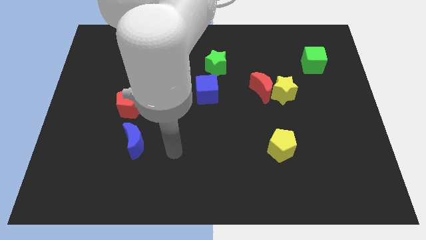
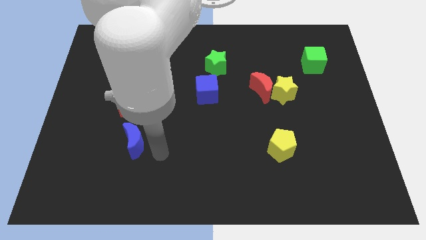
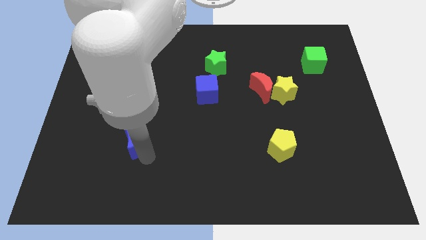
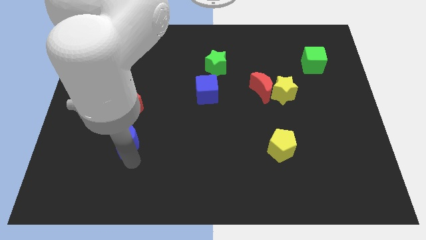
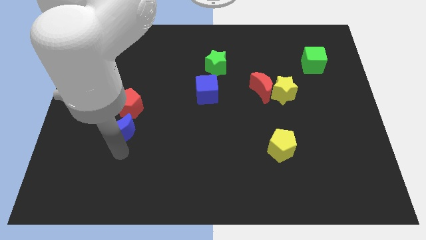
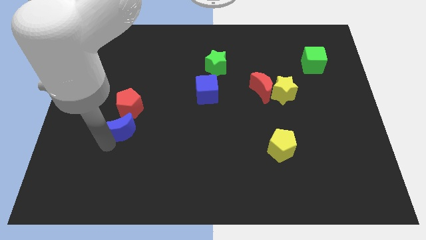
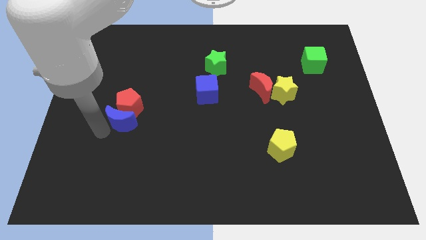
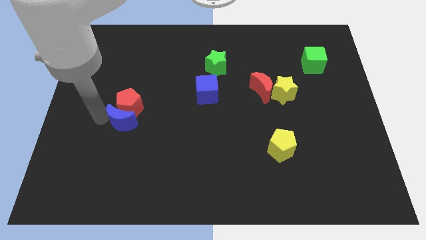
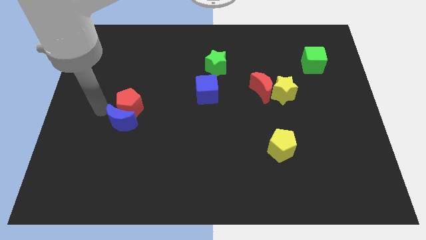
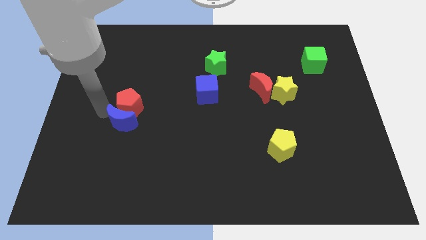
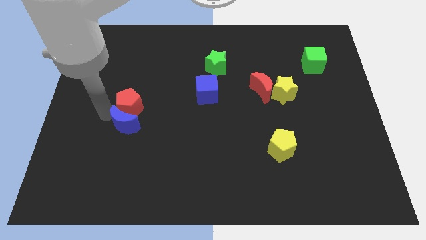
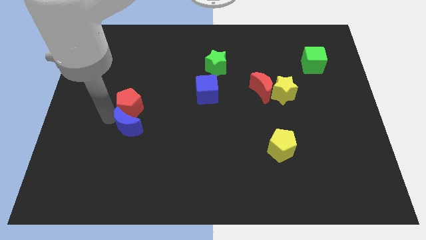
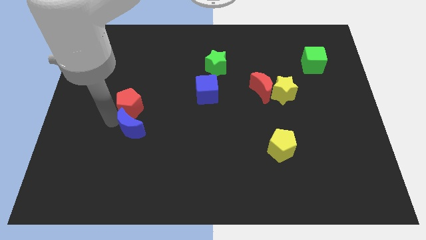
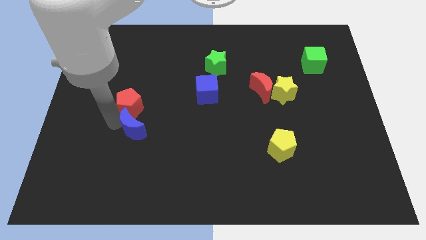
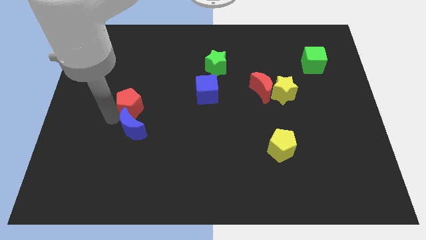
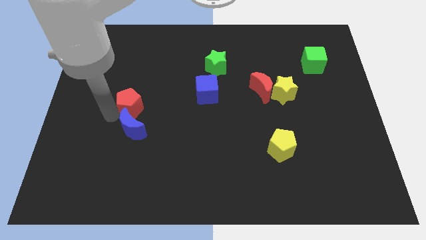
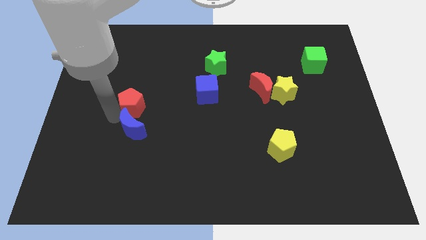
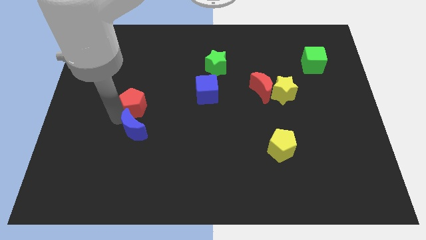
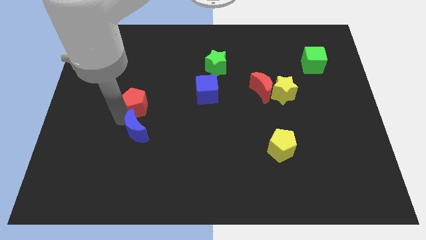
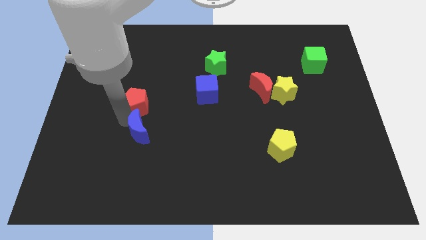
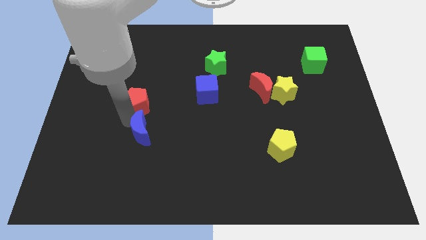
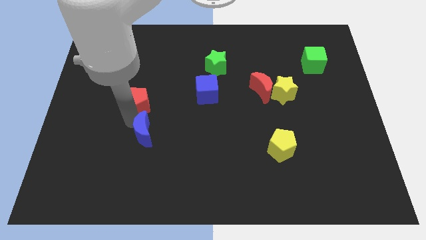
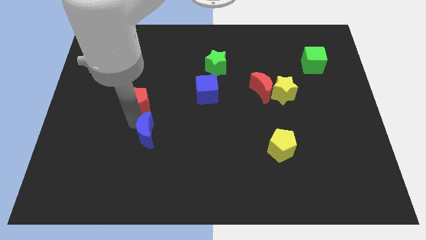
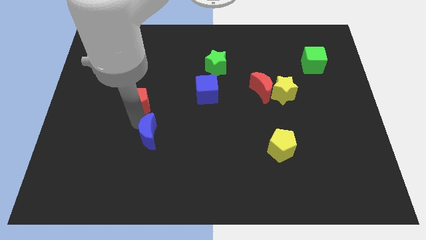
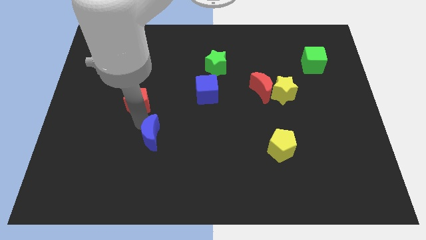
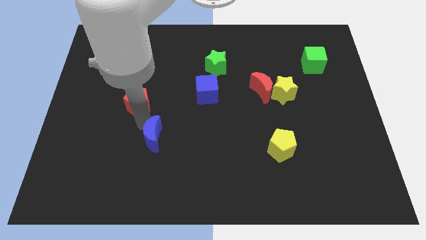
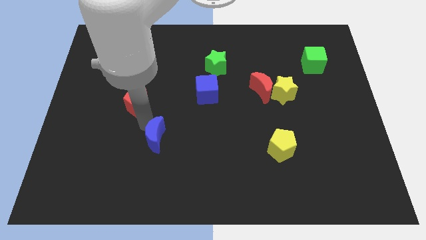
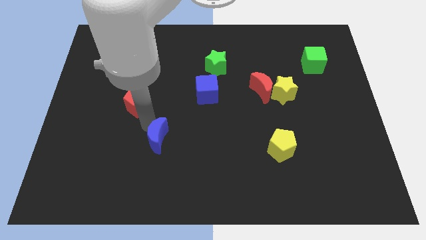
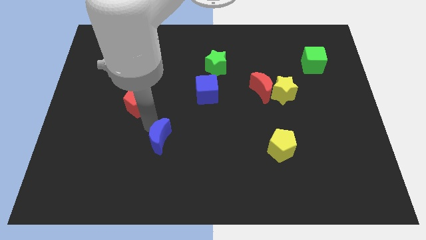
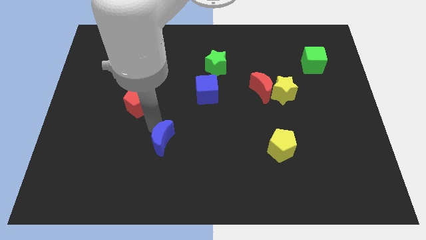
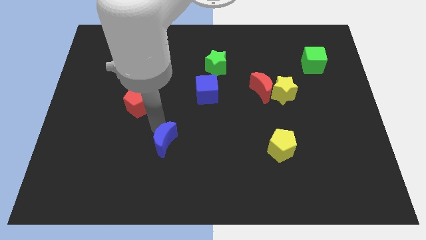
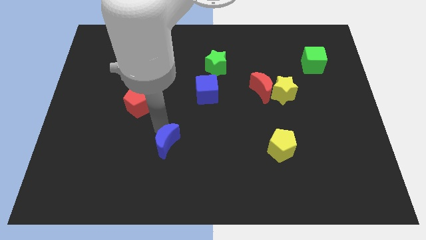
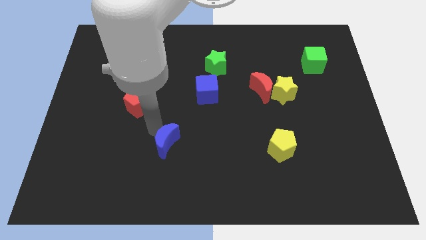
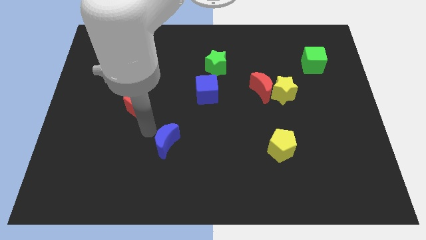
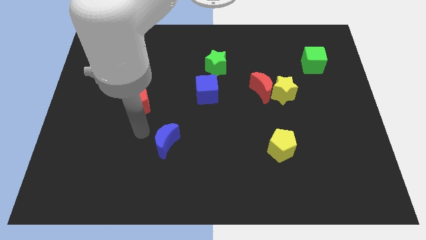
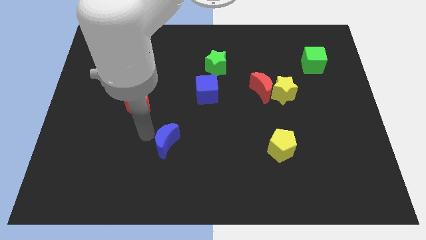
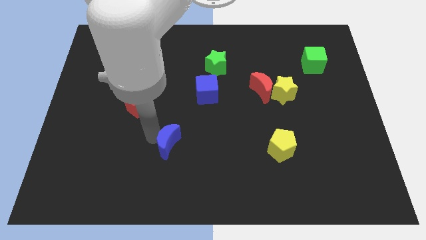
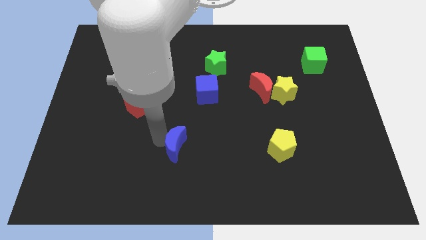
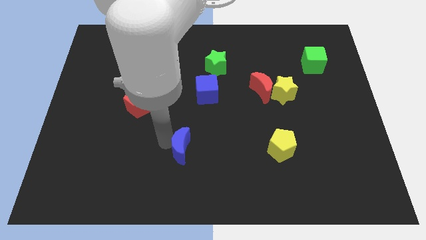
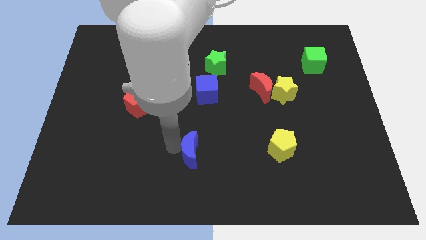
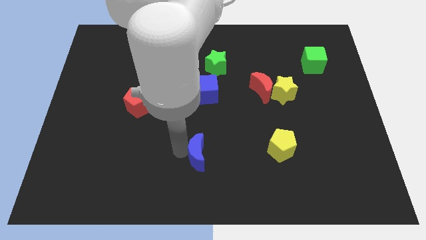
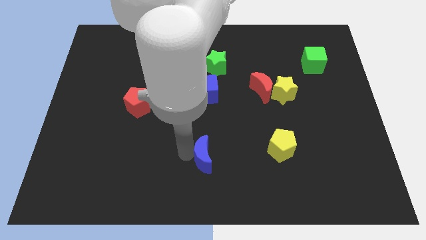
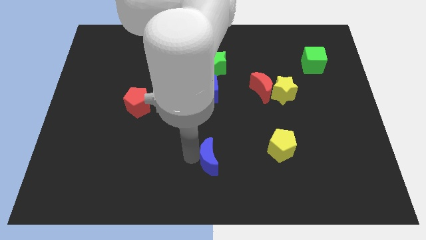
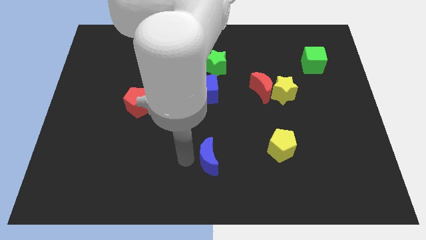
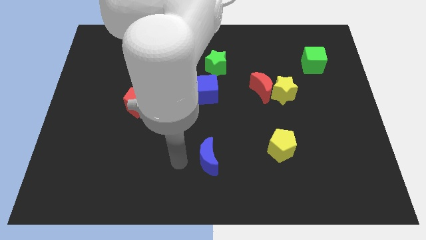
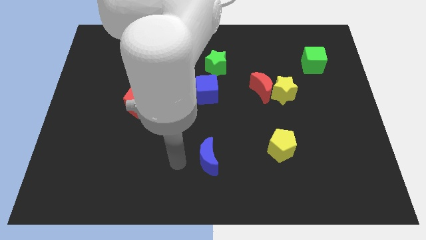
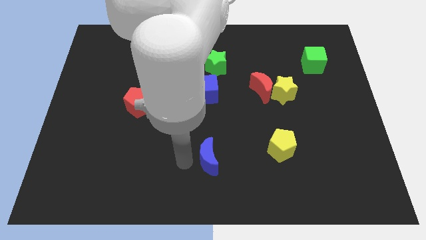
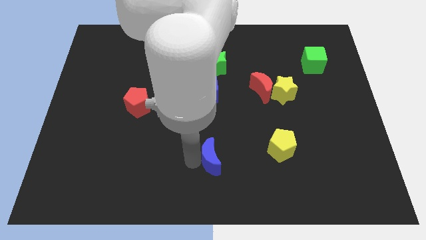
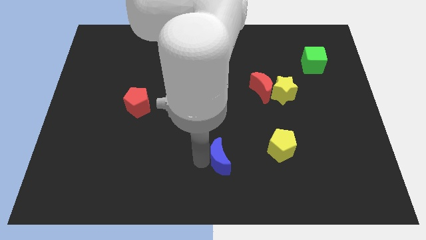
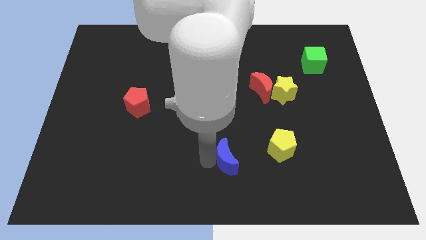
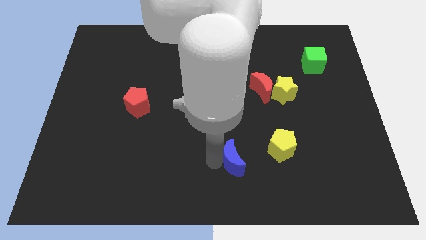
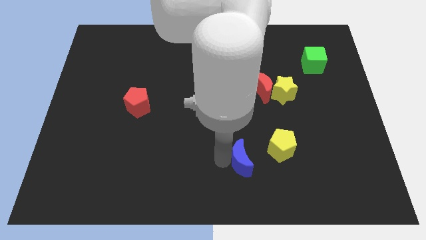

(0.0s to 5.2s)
move the blue moon to the bottom left of the yellow pentagon

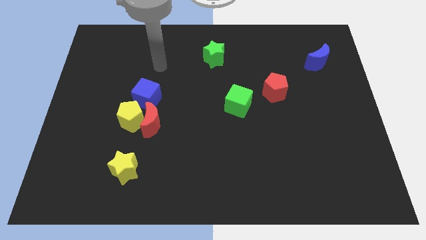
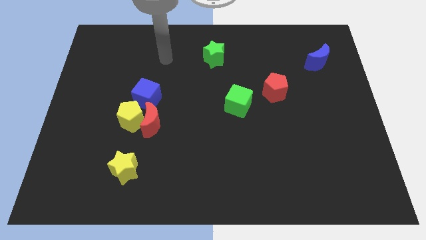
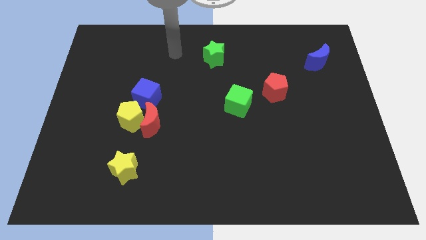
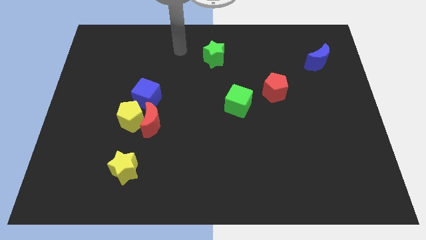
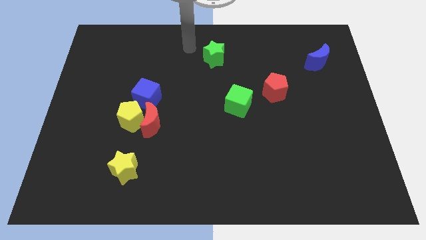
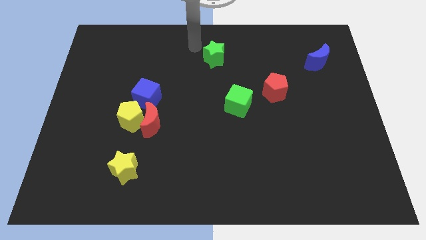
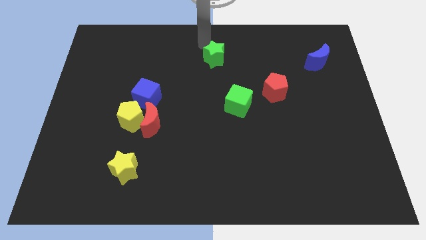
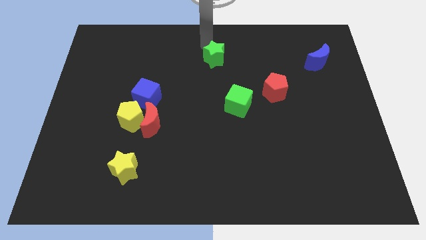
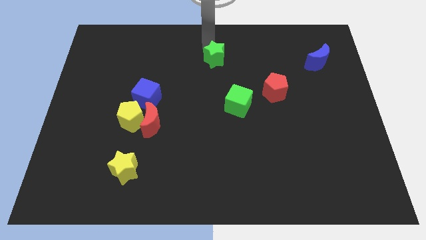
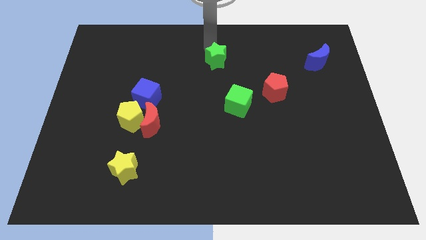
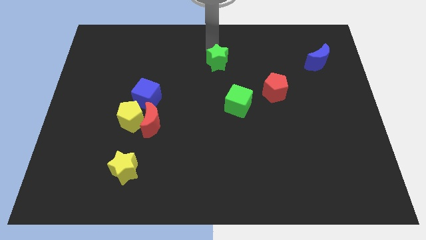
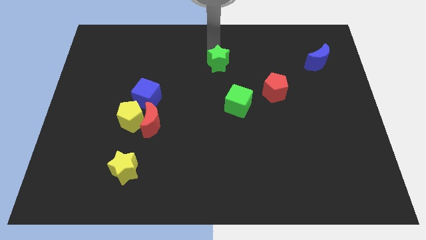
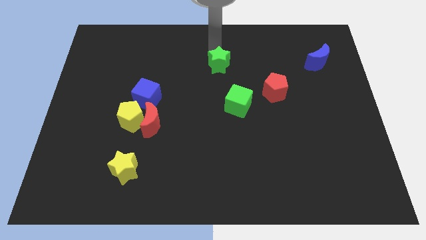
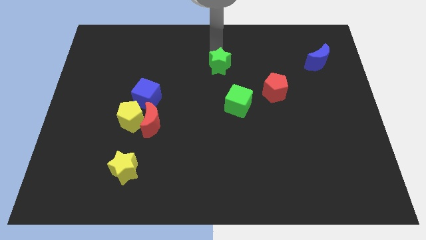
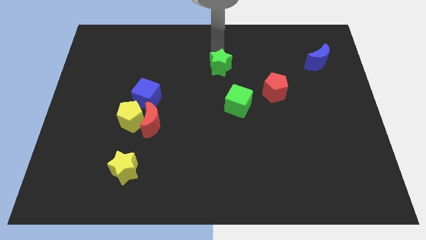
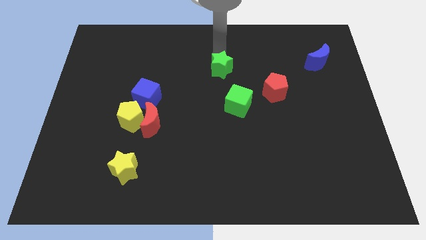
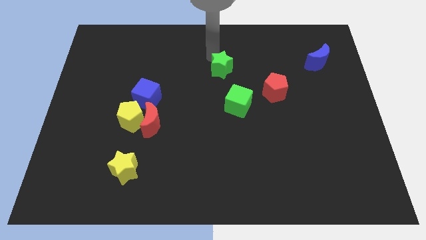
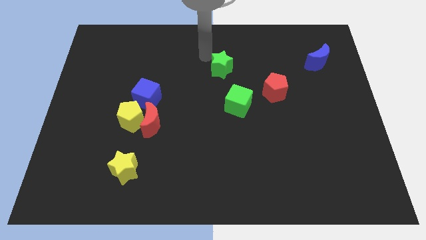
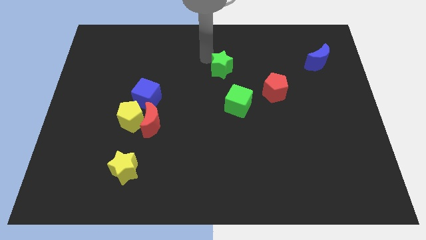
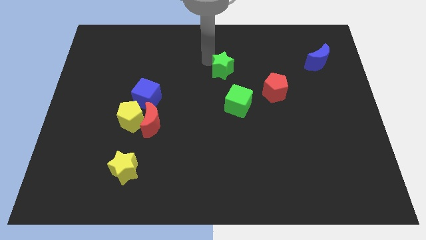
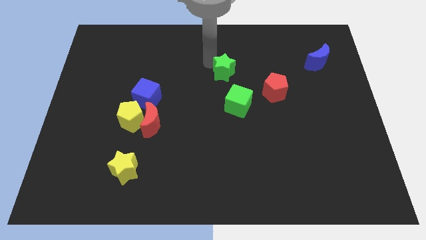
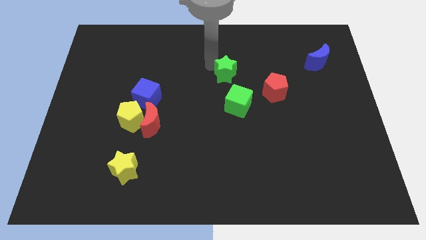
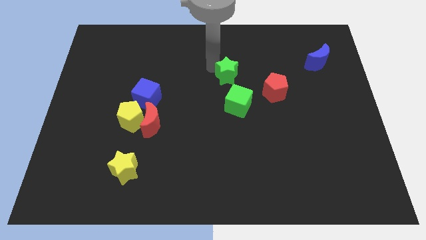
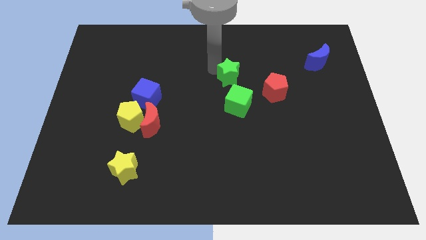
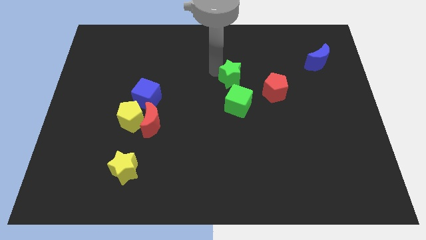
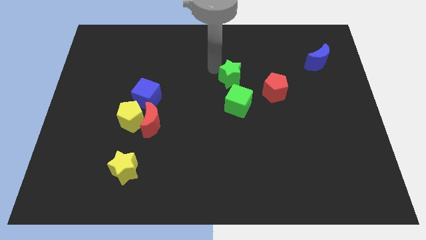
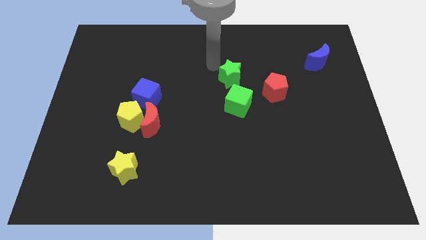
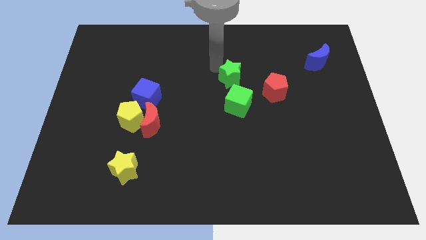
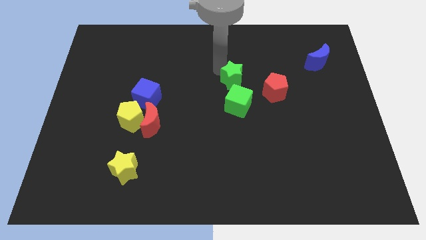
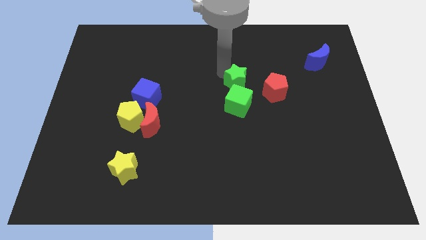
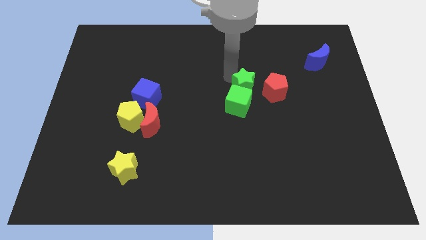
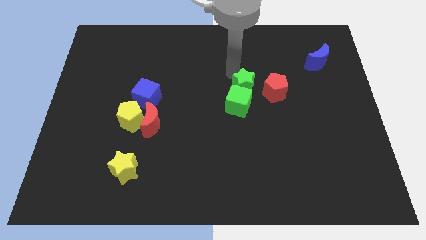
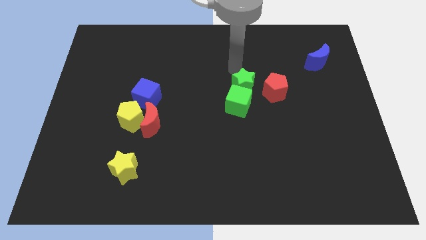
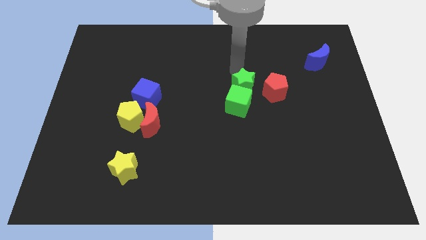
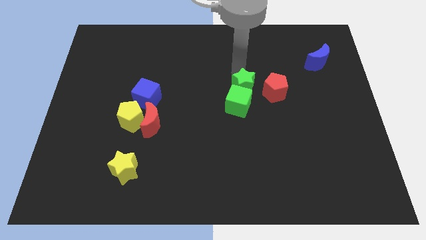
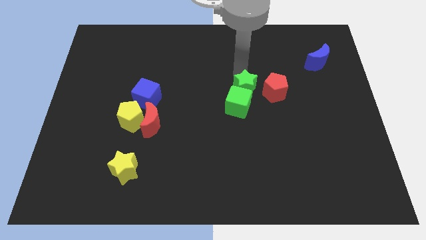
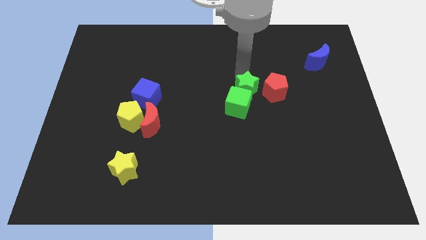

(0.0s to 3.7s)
push the green star to the bottom left of the red pentagon
